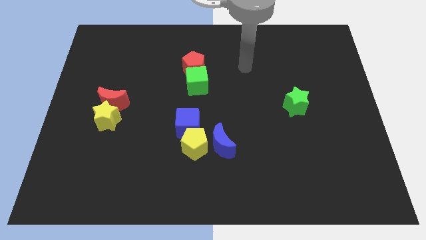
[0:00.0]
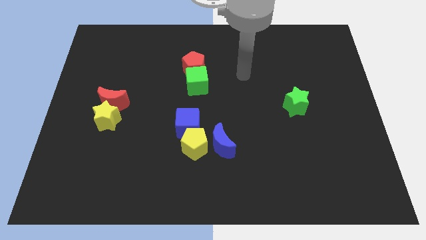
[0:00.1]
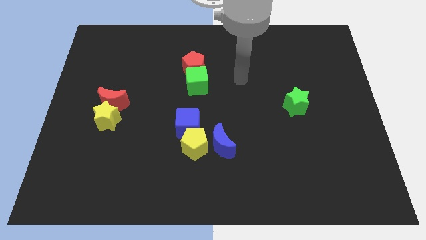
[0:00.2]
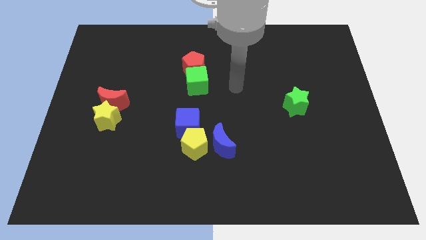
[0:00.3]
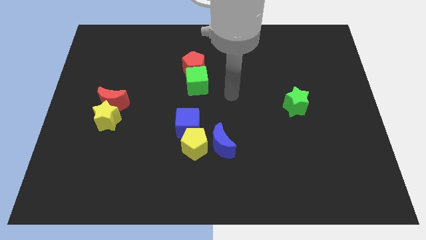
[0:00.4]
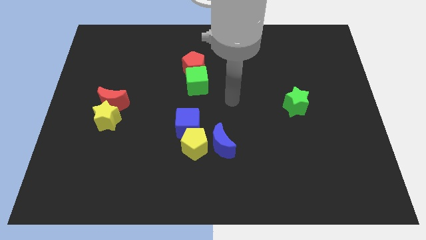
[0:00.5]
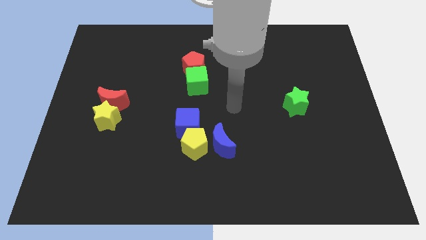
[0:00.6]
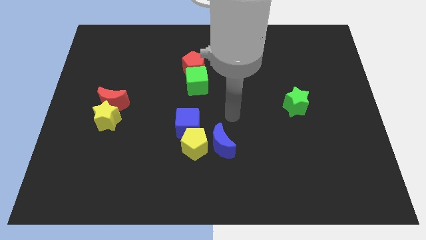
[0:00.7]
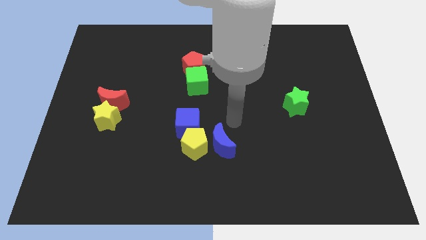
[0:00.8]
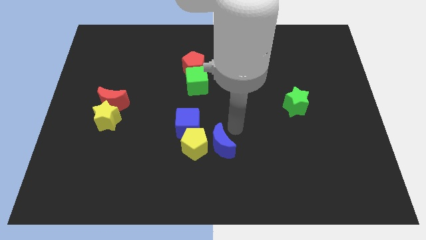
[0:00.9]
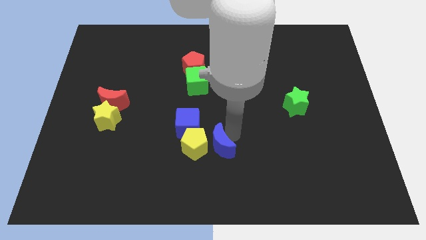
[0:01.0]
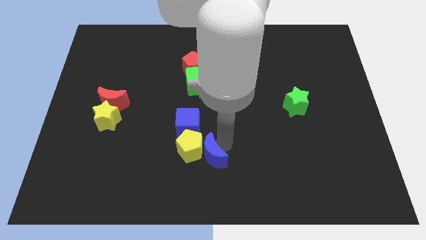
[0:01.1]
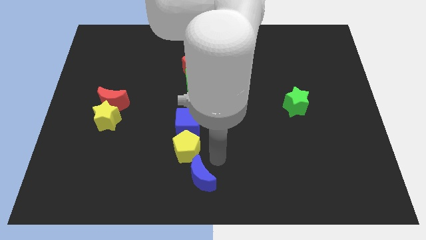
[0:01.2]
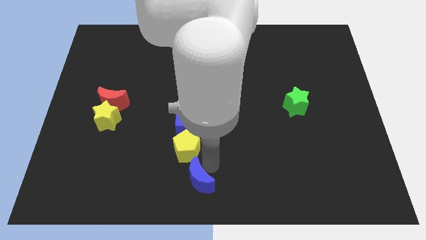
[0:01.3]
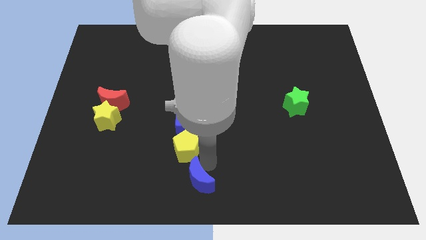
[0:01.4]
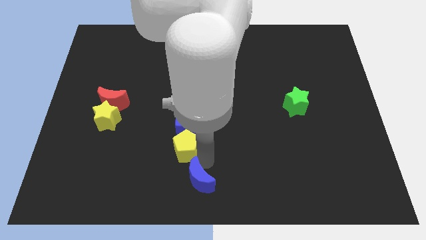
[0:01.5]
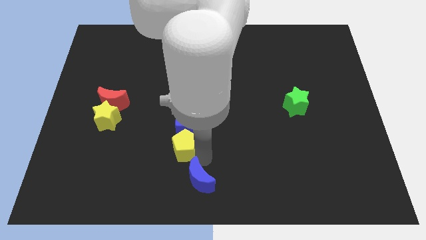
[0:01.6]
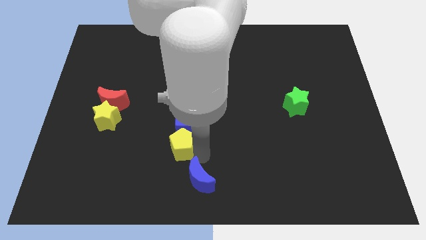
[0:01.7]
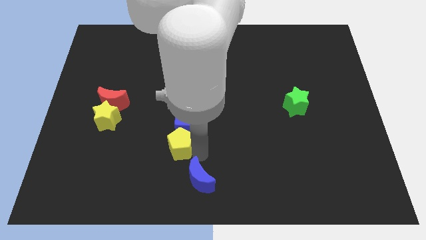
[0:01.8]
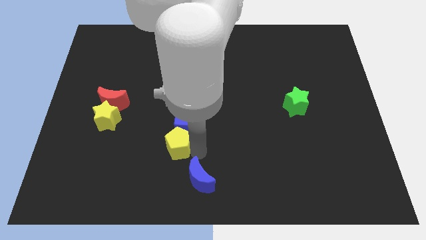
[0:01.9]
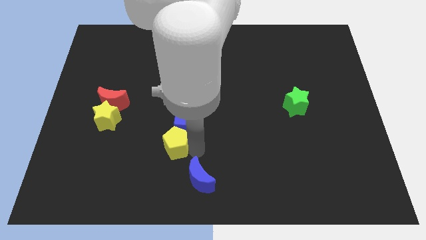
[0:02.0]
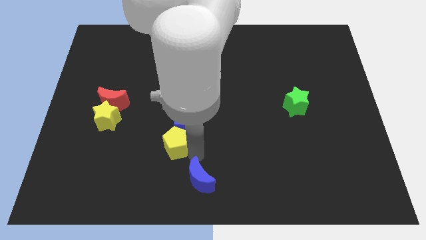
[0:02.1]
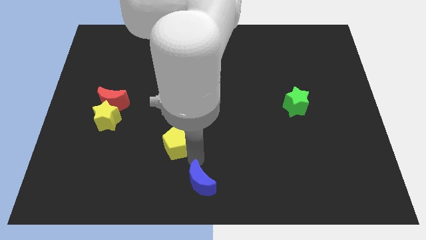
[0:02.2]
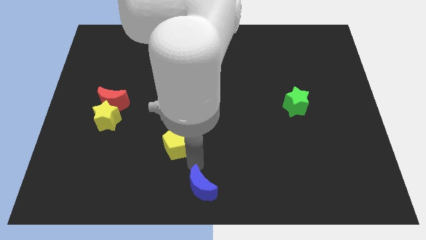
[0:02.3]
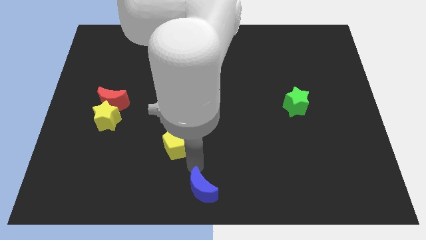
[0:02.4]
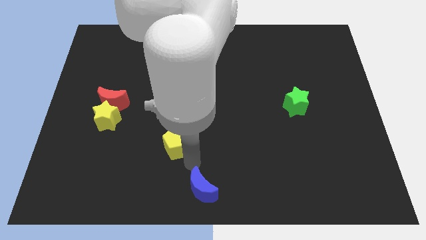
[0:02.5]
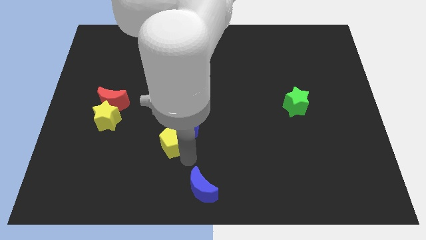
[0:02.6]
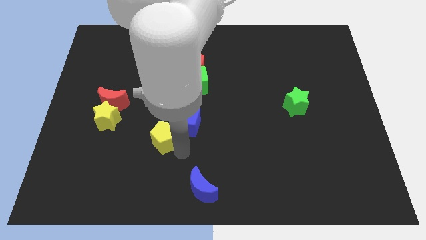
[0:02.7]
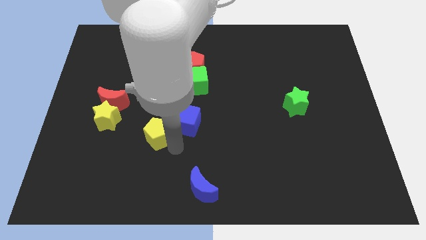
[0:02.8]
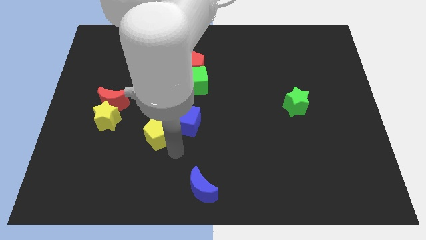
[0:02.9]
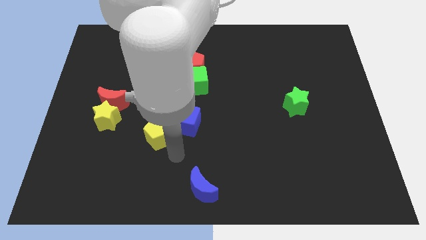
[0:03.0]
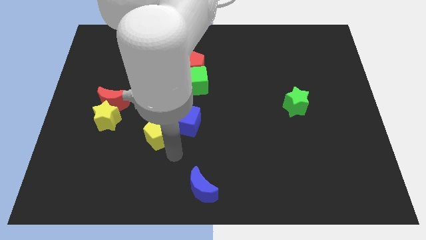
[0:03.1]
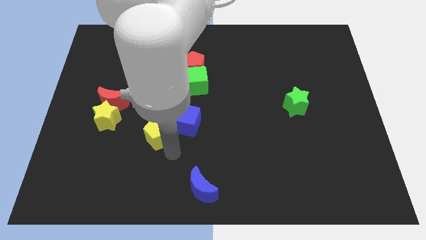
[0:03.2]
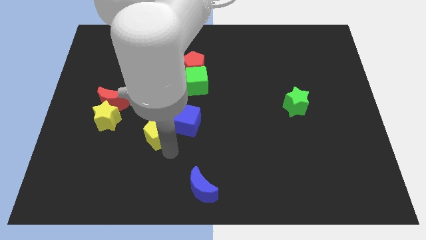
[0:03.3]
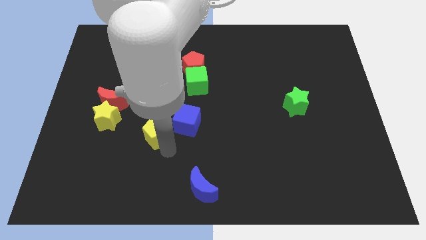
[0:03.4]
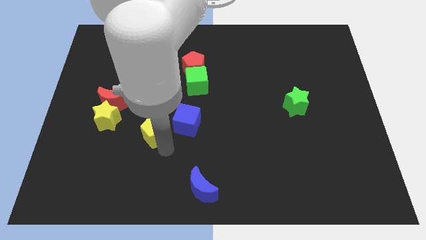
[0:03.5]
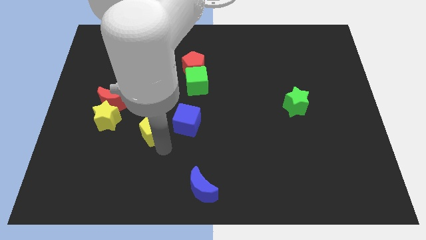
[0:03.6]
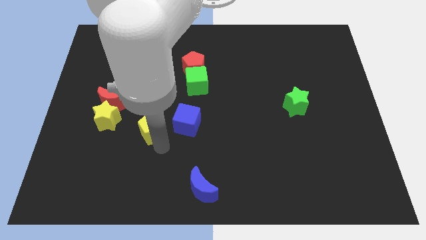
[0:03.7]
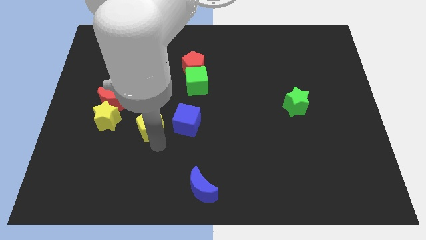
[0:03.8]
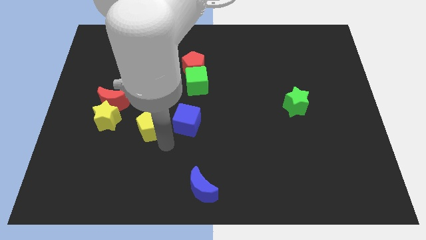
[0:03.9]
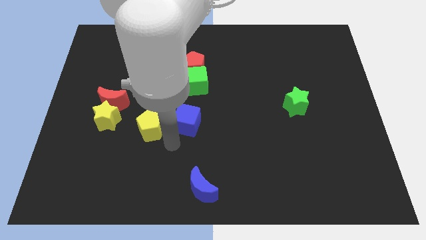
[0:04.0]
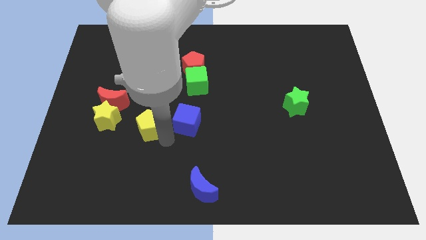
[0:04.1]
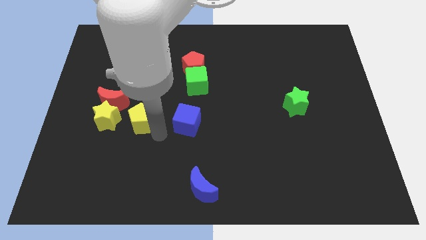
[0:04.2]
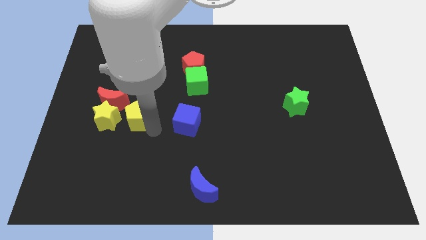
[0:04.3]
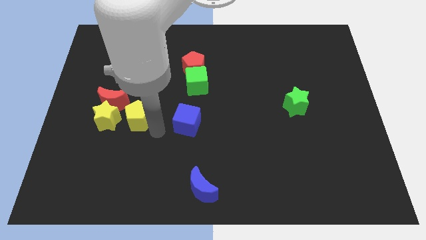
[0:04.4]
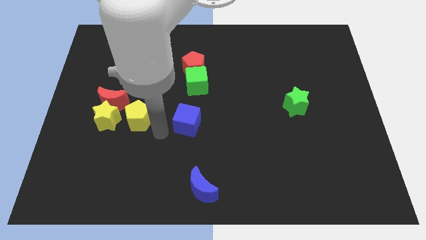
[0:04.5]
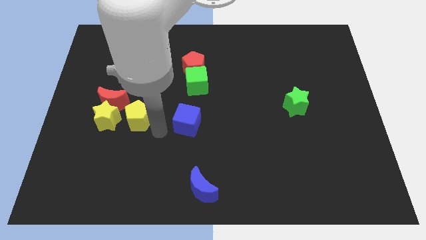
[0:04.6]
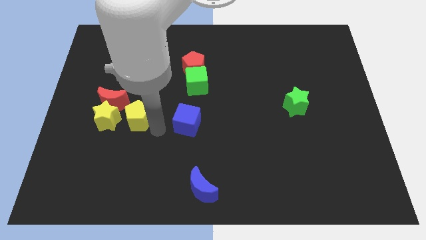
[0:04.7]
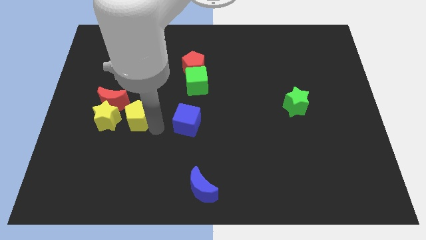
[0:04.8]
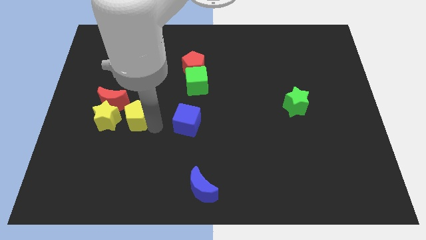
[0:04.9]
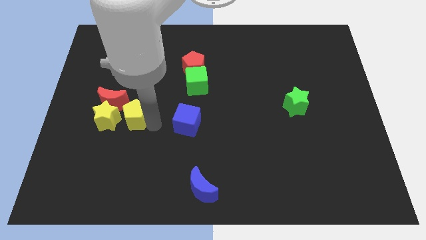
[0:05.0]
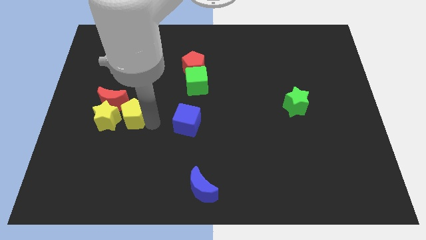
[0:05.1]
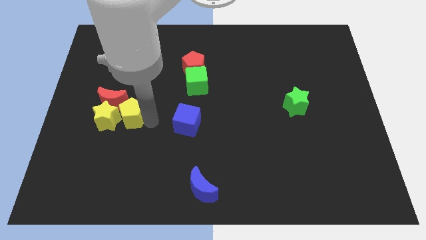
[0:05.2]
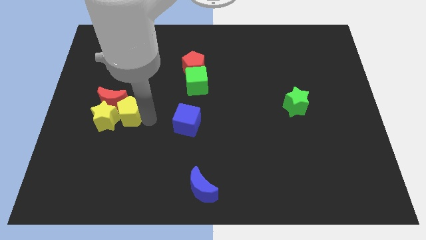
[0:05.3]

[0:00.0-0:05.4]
push the yellow pentagon towards the red moon

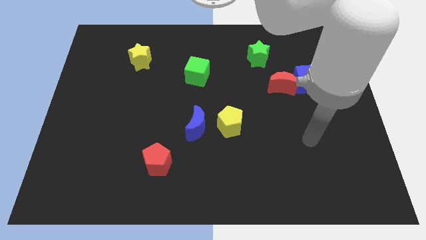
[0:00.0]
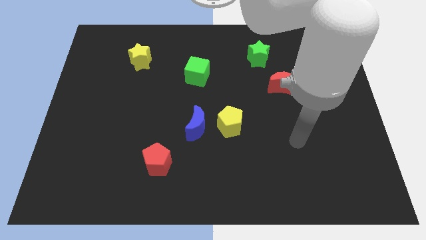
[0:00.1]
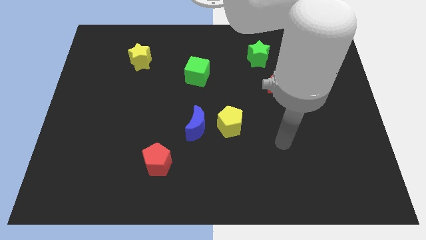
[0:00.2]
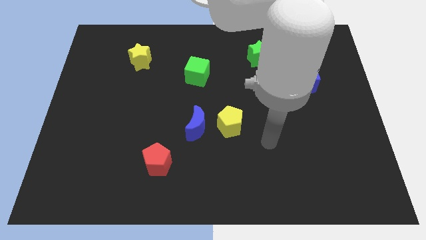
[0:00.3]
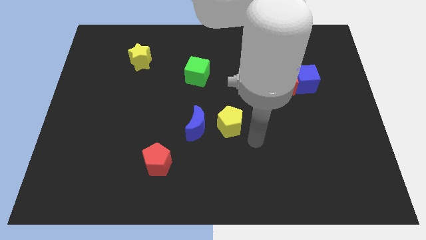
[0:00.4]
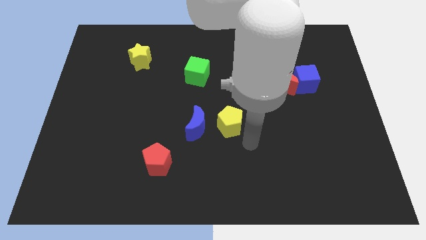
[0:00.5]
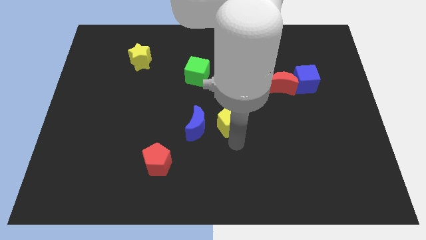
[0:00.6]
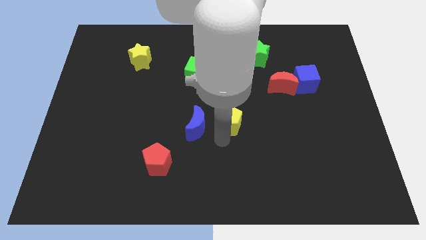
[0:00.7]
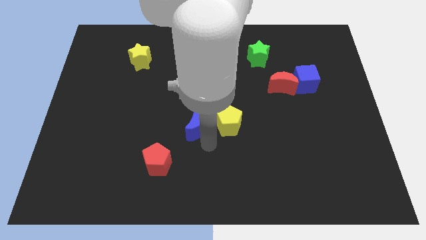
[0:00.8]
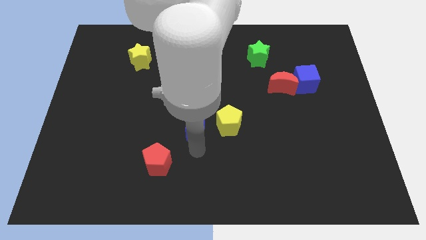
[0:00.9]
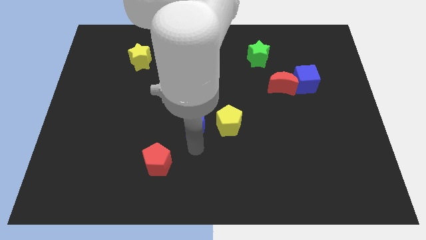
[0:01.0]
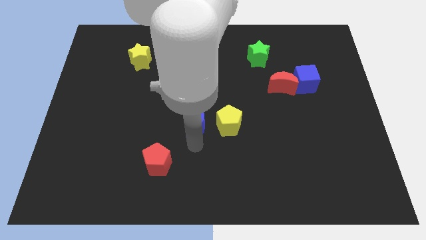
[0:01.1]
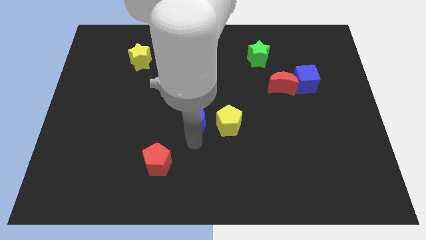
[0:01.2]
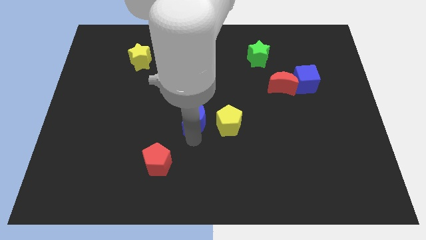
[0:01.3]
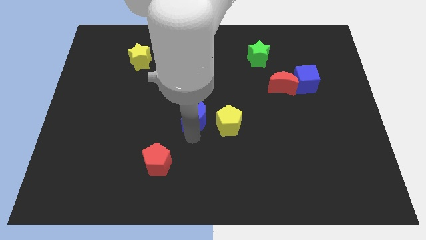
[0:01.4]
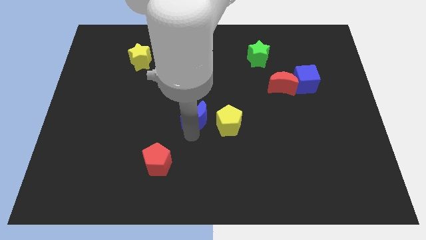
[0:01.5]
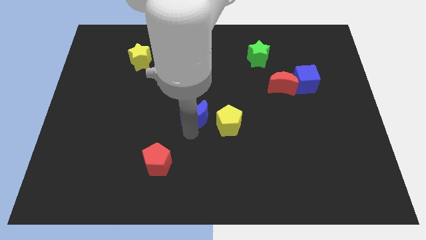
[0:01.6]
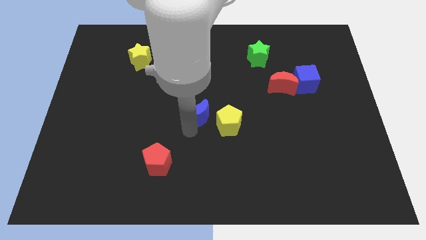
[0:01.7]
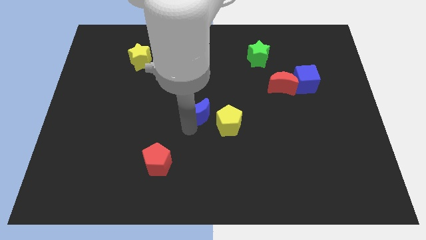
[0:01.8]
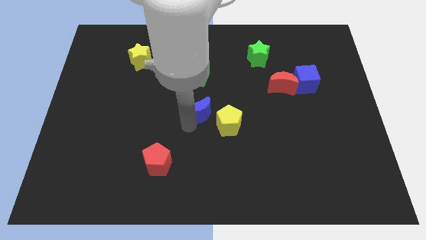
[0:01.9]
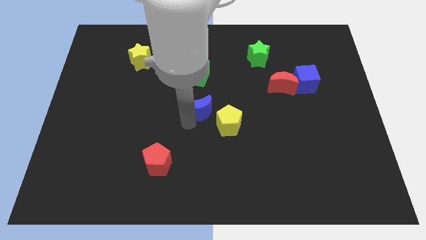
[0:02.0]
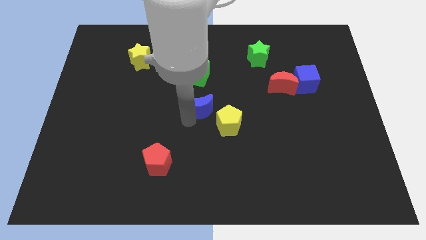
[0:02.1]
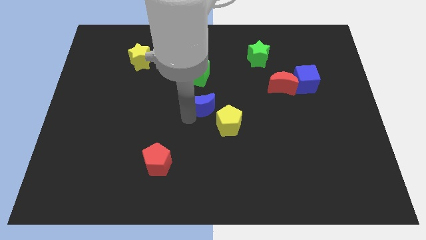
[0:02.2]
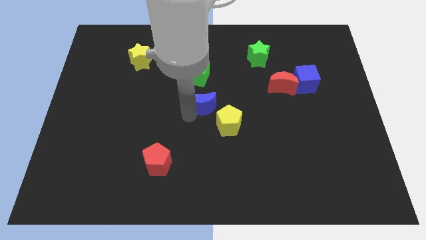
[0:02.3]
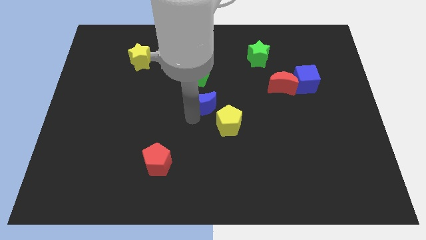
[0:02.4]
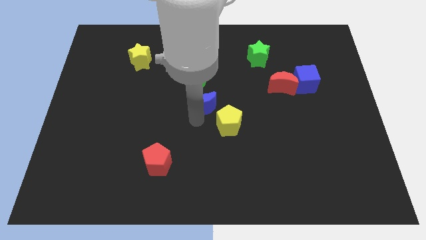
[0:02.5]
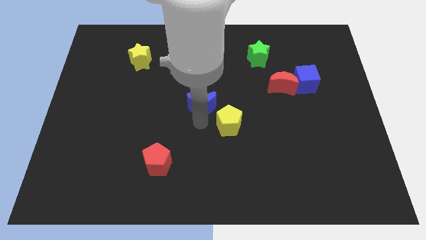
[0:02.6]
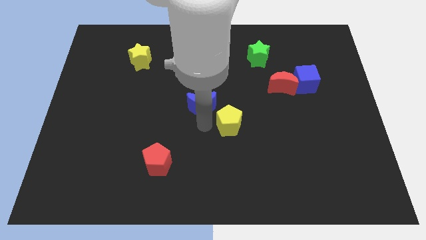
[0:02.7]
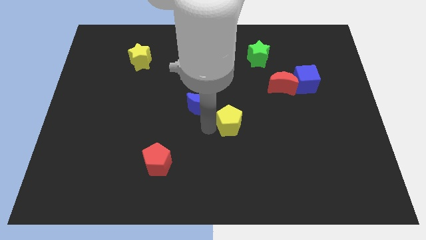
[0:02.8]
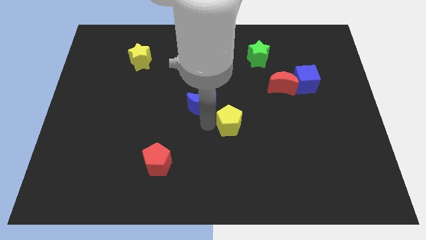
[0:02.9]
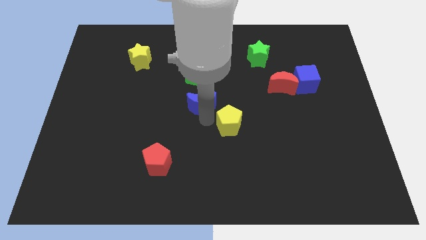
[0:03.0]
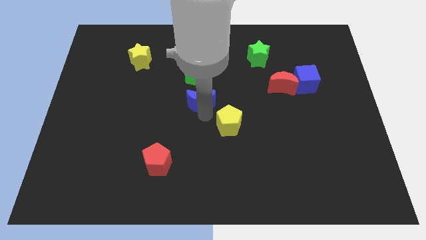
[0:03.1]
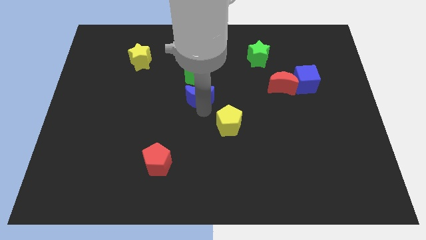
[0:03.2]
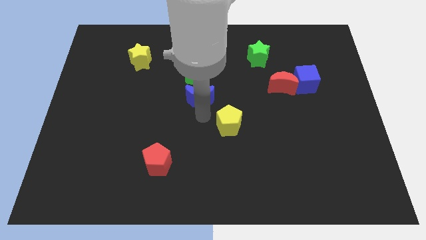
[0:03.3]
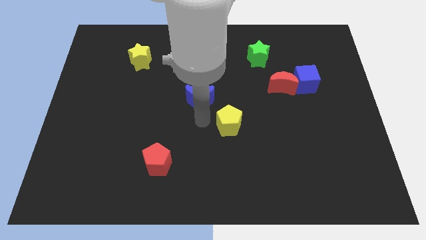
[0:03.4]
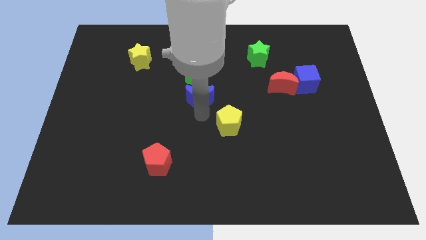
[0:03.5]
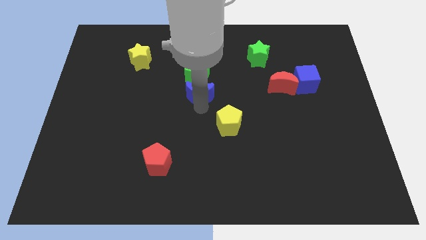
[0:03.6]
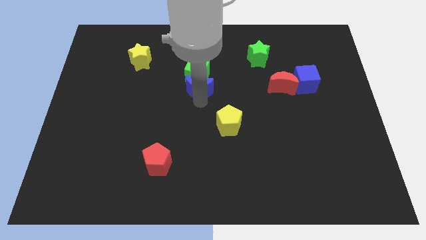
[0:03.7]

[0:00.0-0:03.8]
push the blue moon close to the green cube
